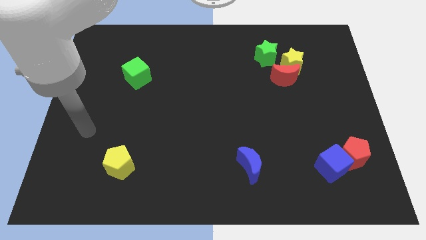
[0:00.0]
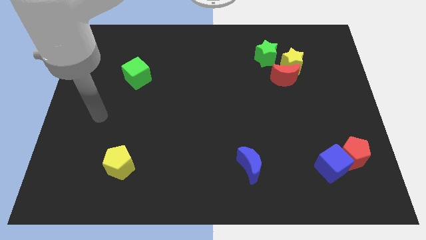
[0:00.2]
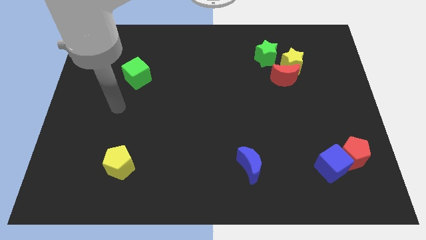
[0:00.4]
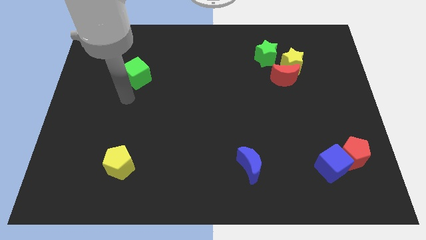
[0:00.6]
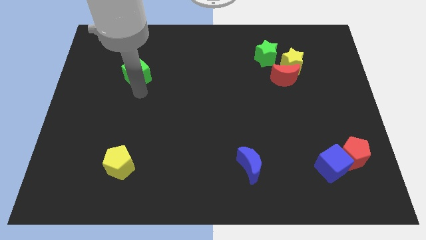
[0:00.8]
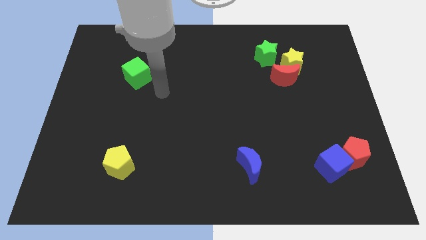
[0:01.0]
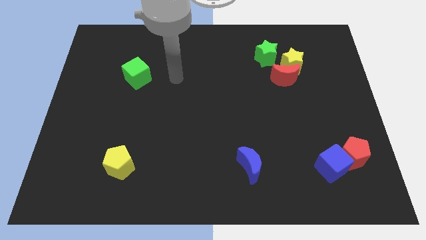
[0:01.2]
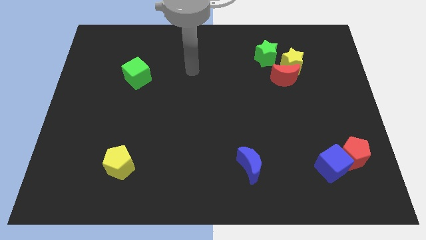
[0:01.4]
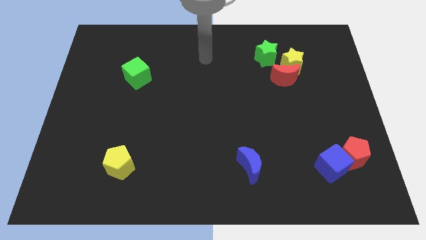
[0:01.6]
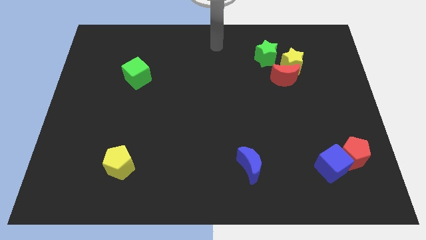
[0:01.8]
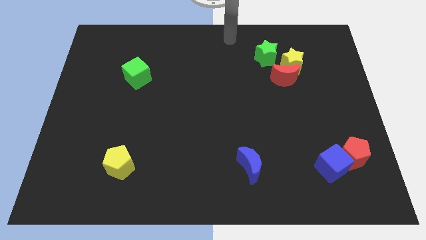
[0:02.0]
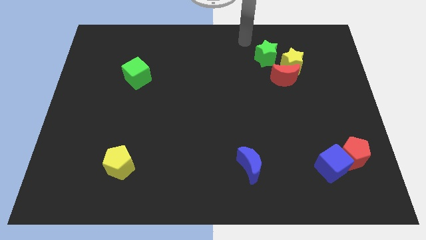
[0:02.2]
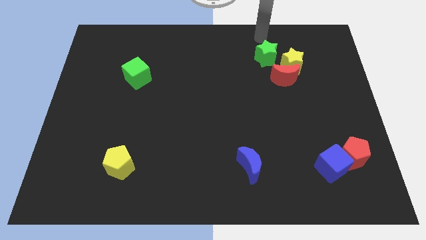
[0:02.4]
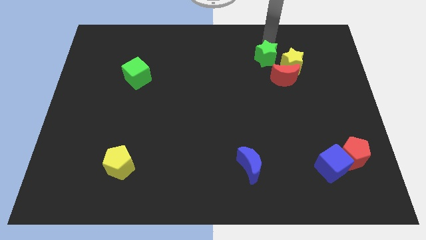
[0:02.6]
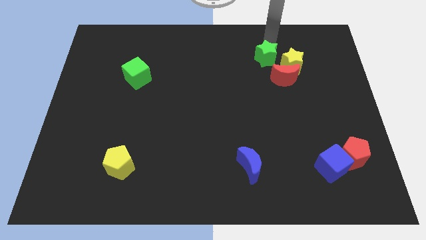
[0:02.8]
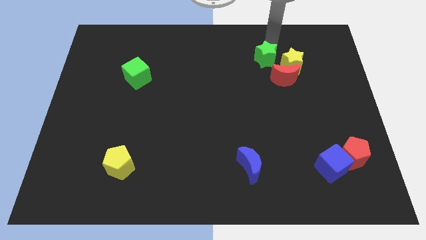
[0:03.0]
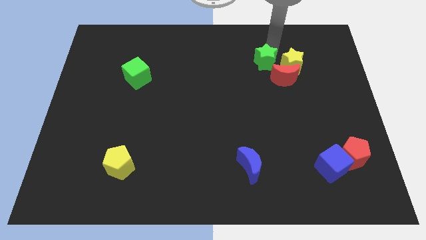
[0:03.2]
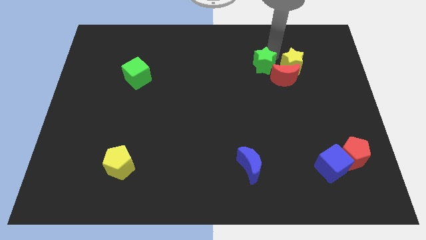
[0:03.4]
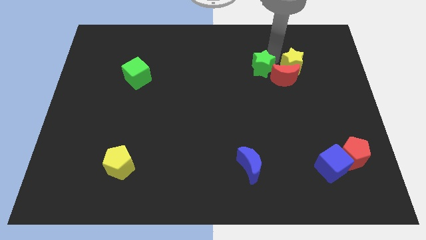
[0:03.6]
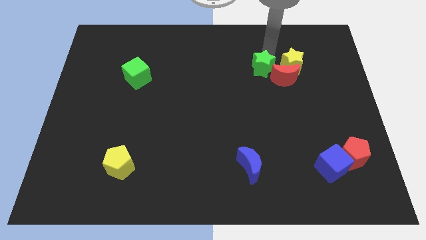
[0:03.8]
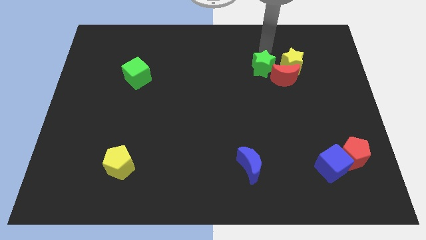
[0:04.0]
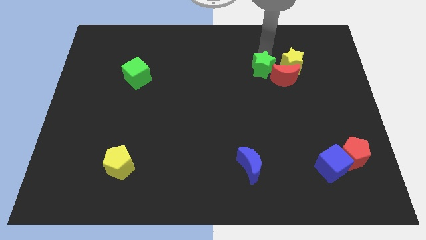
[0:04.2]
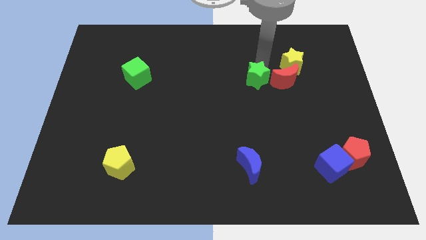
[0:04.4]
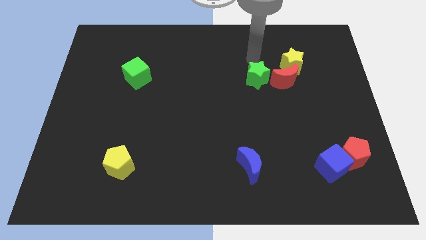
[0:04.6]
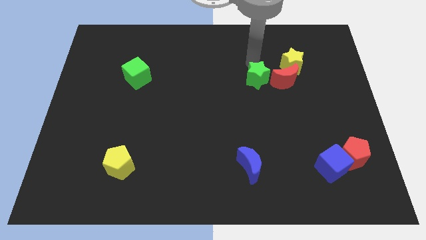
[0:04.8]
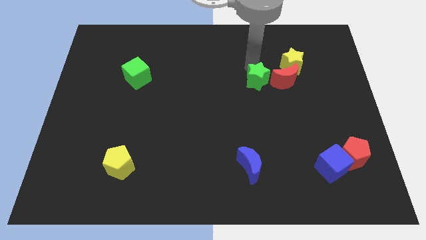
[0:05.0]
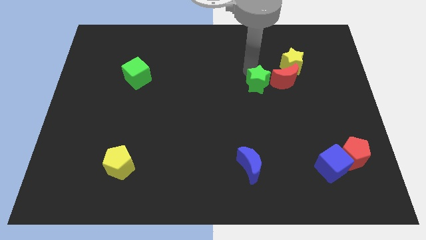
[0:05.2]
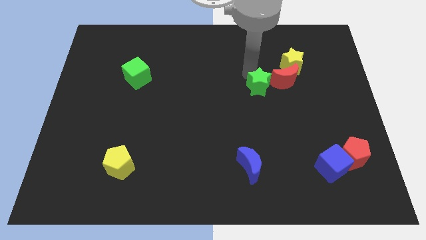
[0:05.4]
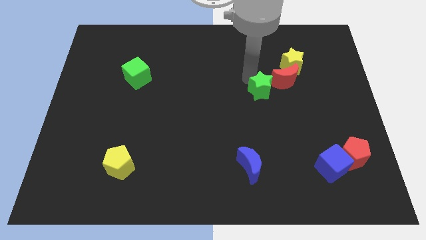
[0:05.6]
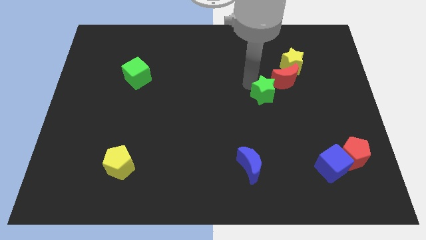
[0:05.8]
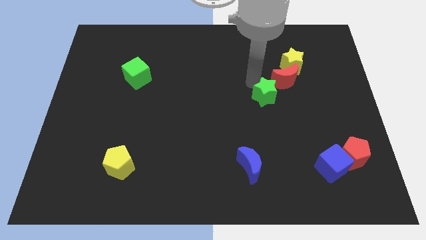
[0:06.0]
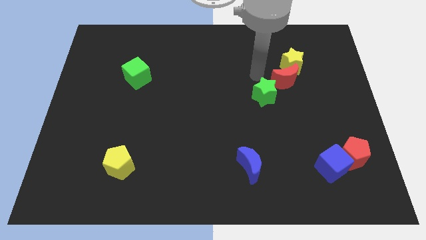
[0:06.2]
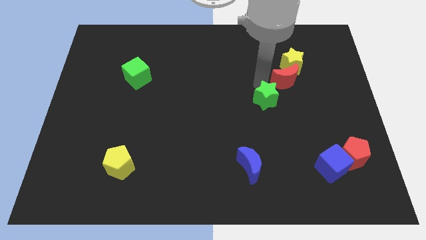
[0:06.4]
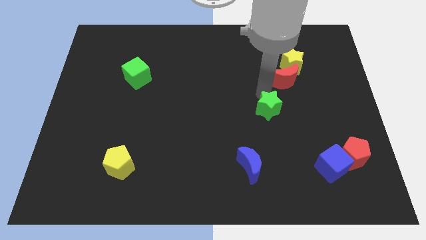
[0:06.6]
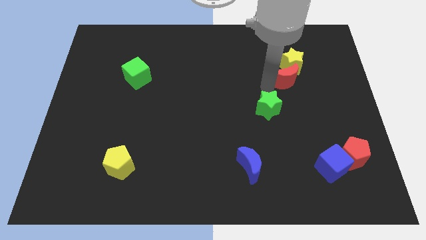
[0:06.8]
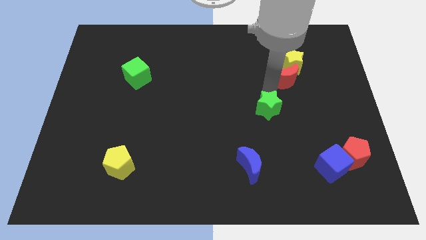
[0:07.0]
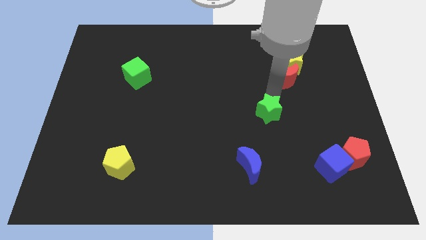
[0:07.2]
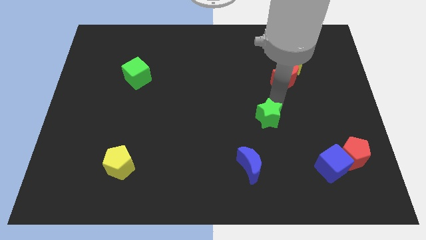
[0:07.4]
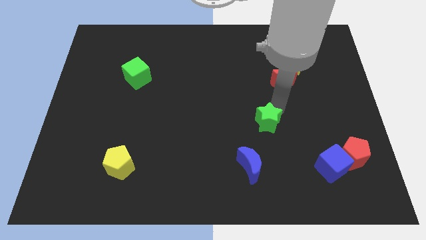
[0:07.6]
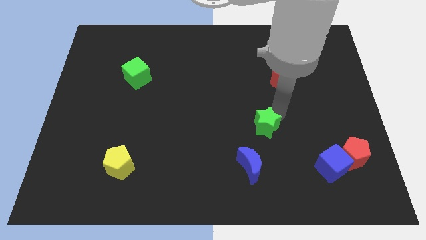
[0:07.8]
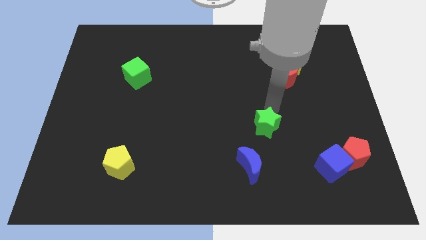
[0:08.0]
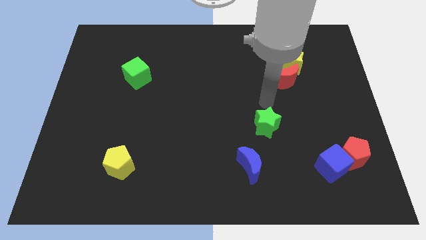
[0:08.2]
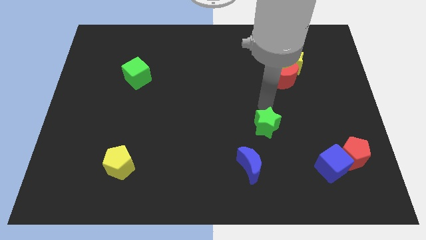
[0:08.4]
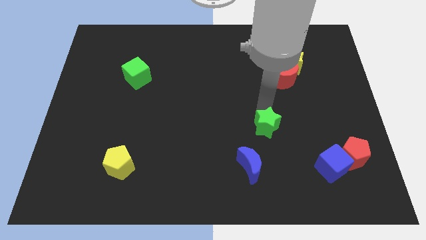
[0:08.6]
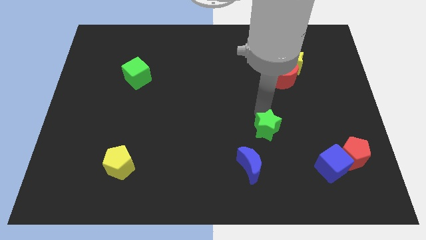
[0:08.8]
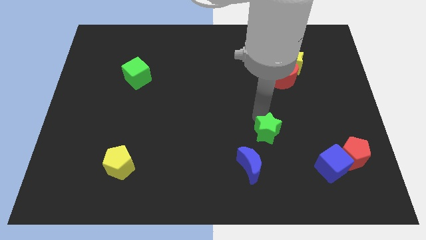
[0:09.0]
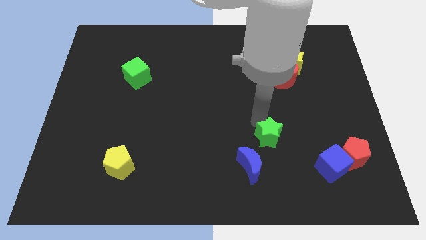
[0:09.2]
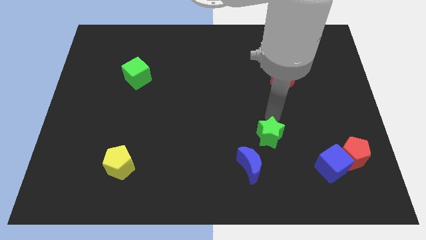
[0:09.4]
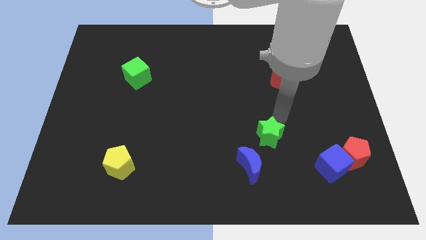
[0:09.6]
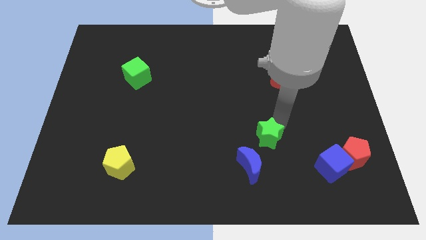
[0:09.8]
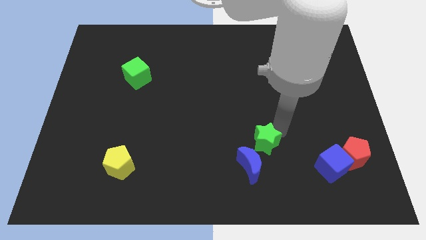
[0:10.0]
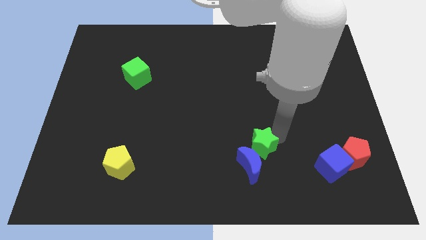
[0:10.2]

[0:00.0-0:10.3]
slide the green star next to the blue moon

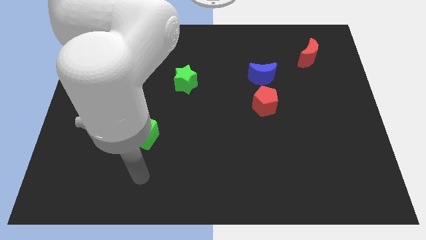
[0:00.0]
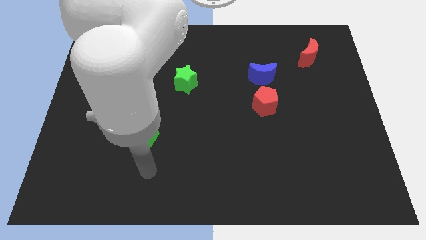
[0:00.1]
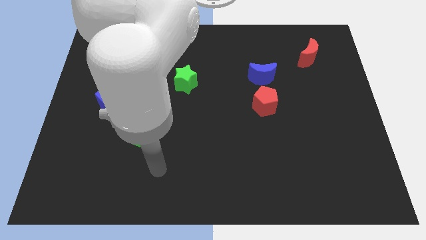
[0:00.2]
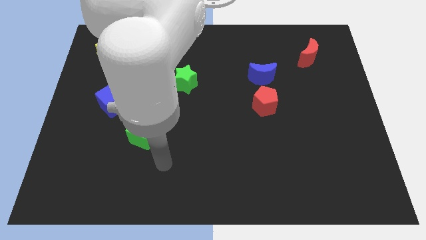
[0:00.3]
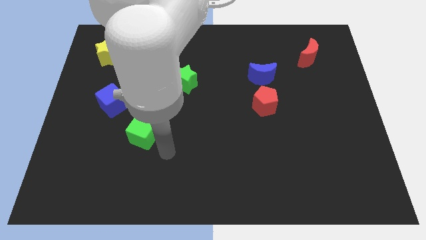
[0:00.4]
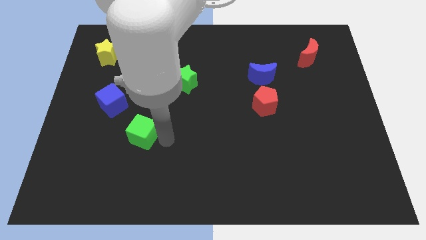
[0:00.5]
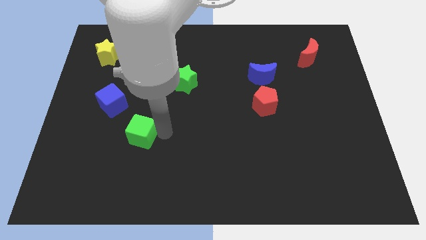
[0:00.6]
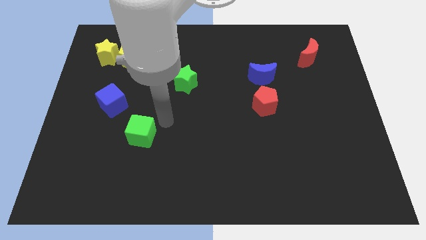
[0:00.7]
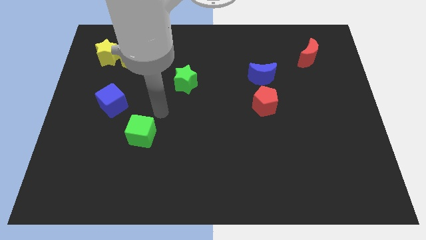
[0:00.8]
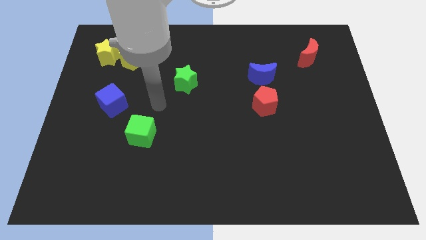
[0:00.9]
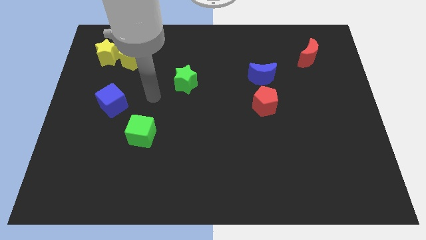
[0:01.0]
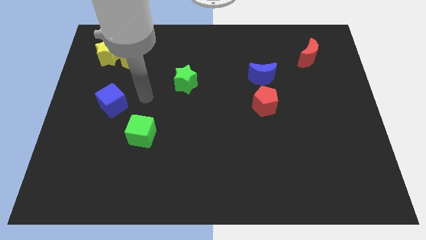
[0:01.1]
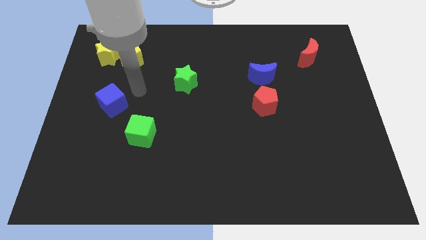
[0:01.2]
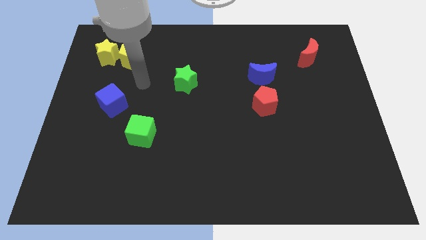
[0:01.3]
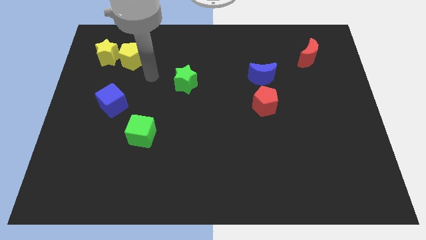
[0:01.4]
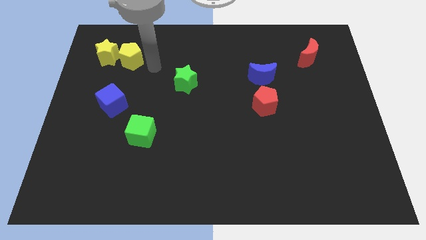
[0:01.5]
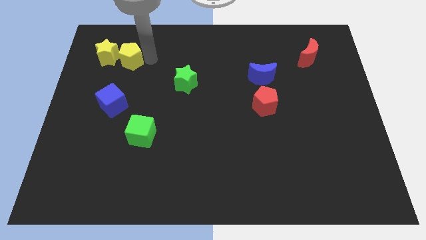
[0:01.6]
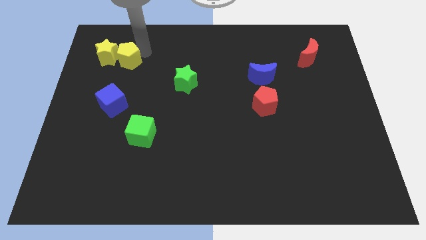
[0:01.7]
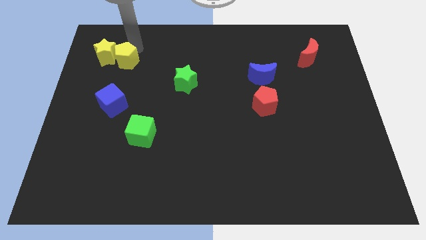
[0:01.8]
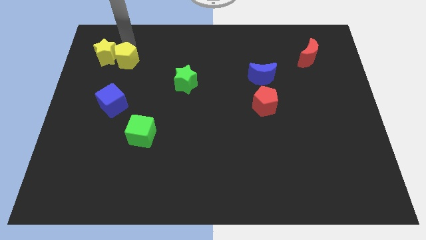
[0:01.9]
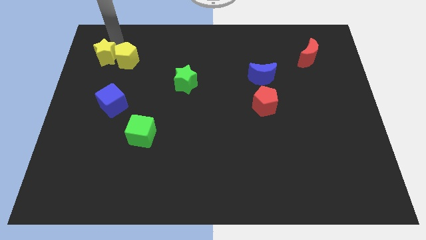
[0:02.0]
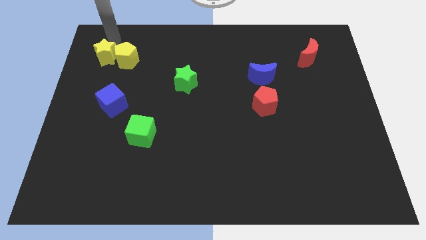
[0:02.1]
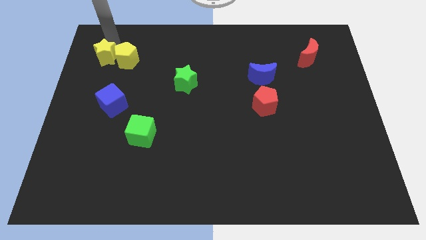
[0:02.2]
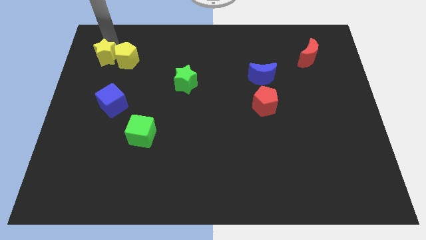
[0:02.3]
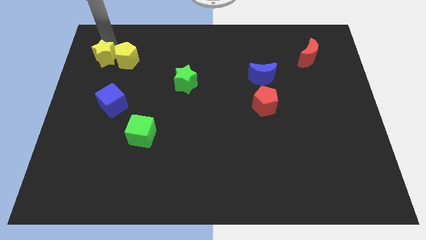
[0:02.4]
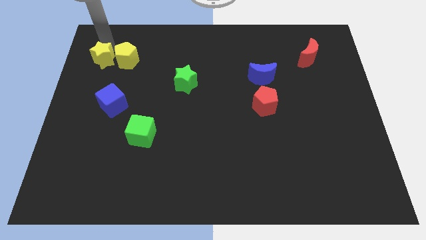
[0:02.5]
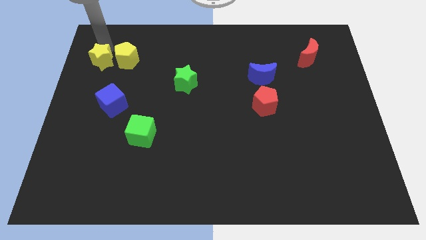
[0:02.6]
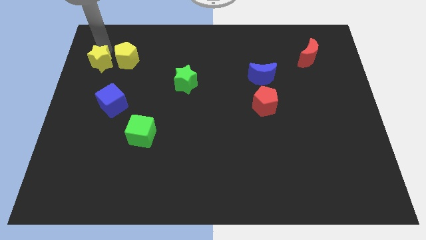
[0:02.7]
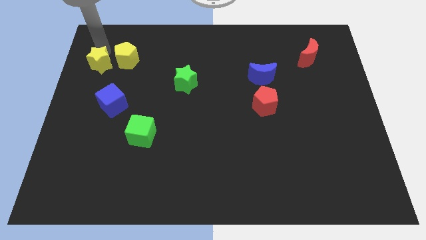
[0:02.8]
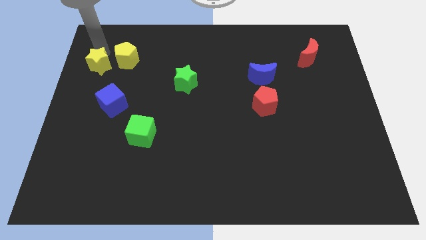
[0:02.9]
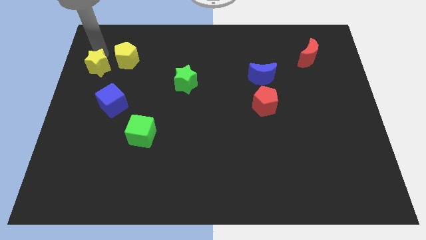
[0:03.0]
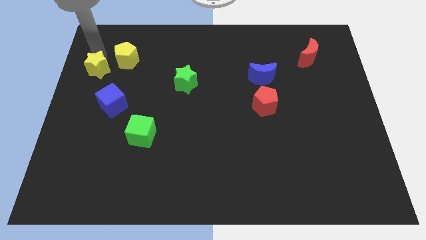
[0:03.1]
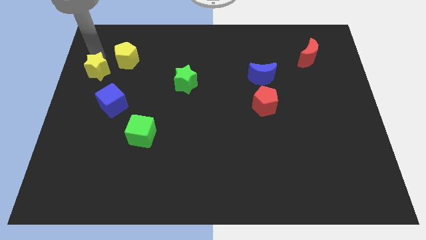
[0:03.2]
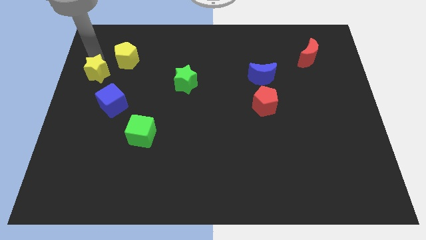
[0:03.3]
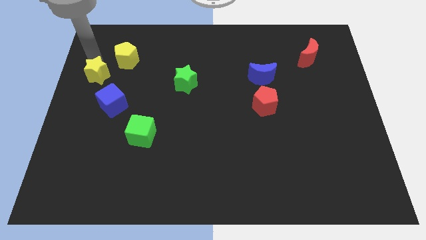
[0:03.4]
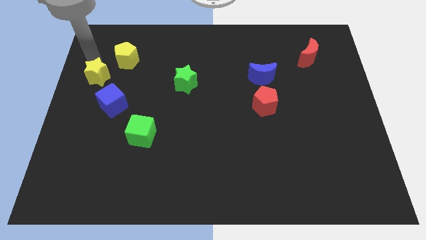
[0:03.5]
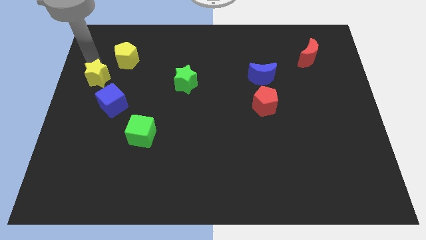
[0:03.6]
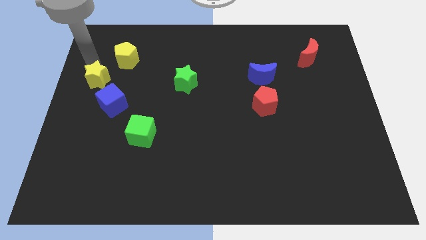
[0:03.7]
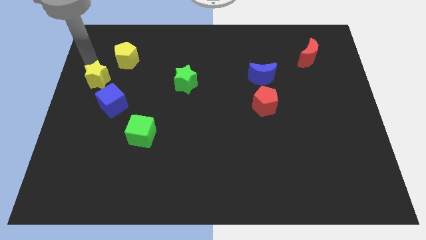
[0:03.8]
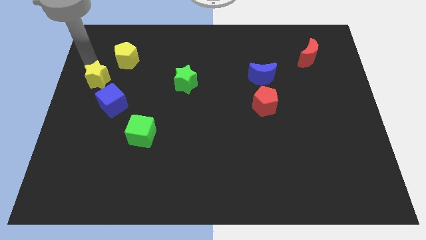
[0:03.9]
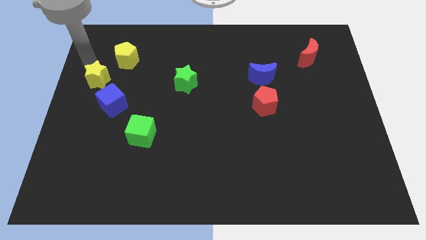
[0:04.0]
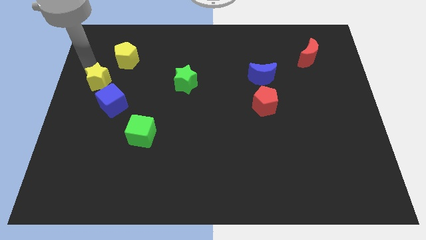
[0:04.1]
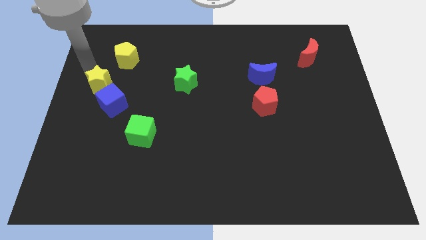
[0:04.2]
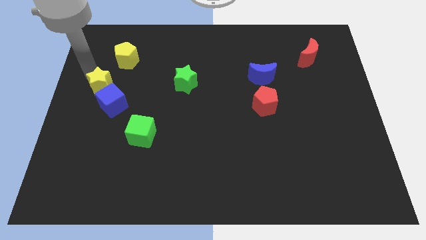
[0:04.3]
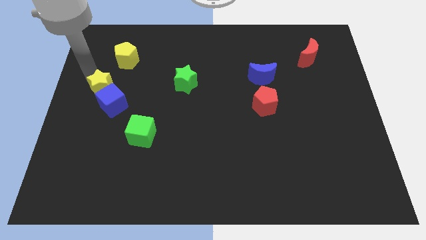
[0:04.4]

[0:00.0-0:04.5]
slide the yellow star next to the blue cube
